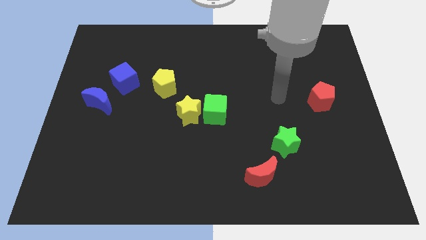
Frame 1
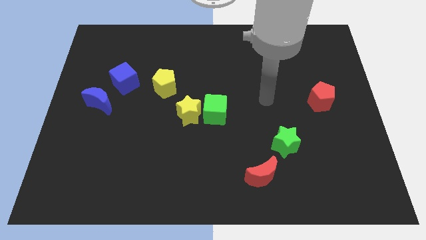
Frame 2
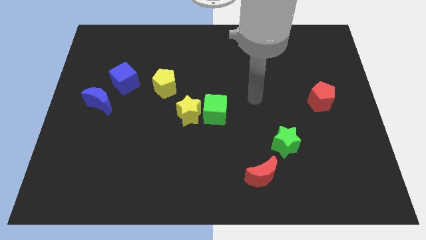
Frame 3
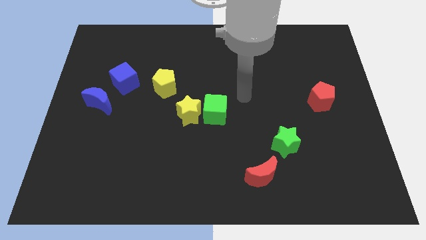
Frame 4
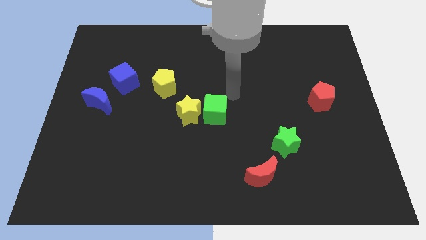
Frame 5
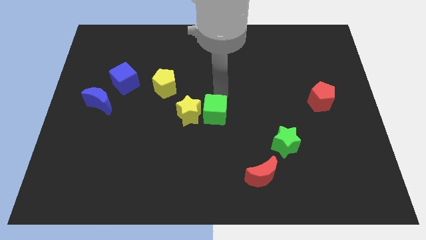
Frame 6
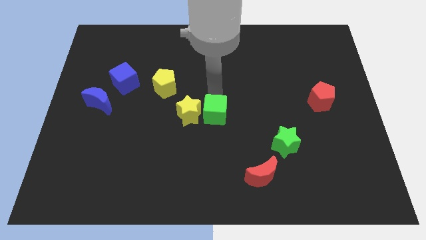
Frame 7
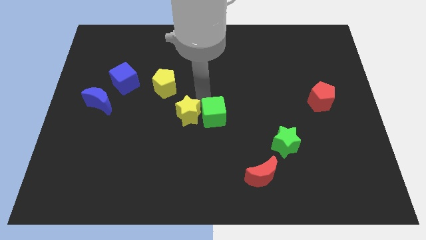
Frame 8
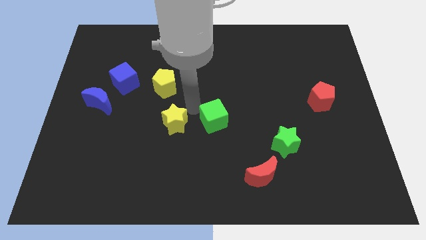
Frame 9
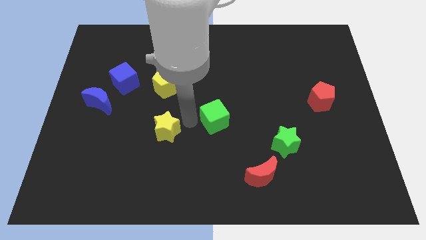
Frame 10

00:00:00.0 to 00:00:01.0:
move the green cube away from the yellow star

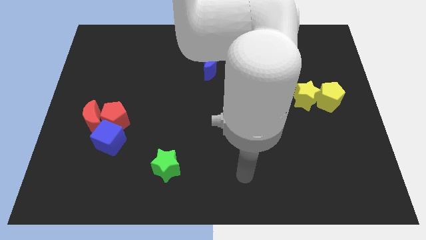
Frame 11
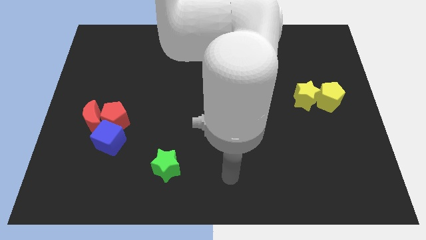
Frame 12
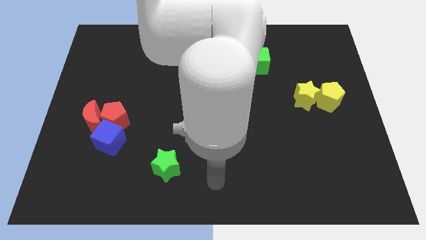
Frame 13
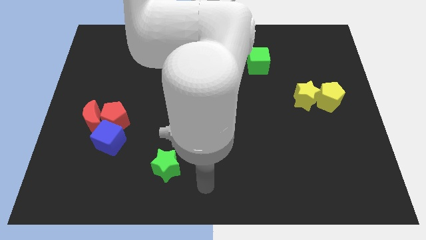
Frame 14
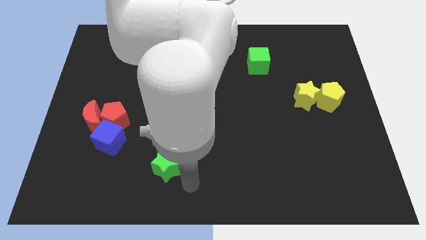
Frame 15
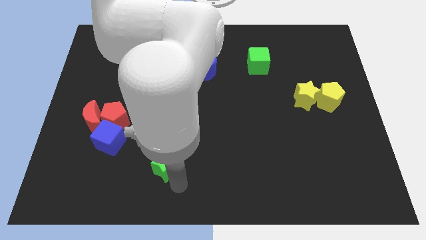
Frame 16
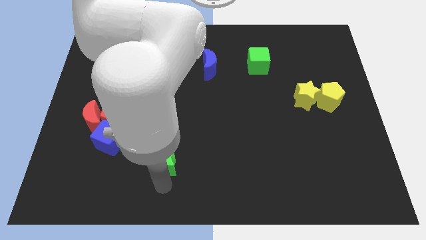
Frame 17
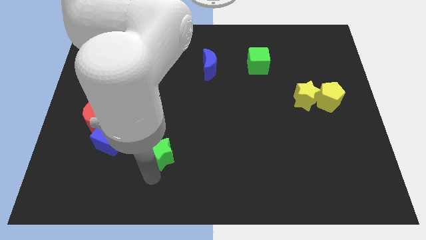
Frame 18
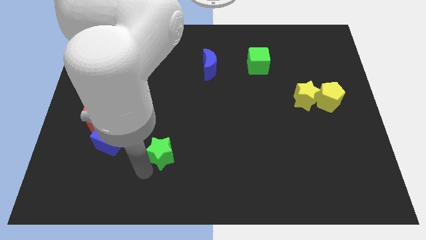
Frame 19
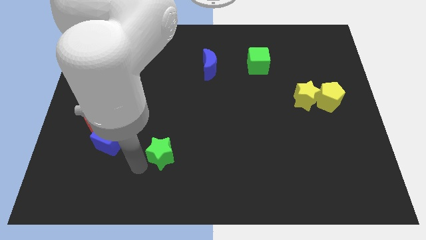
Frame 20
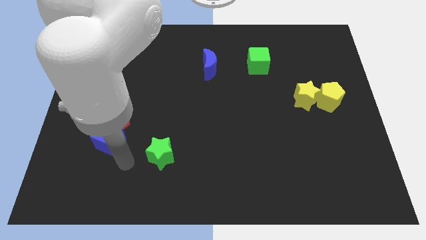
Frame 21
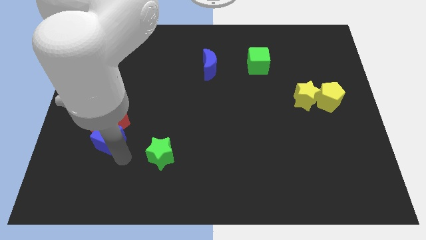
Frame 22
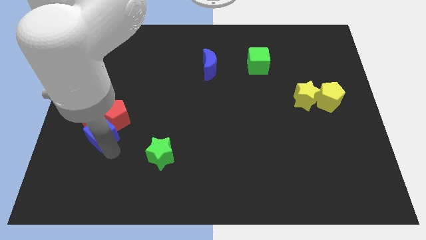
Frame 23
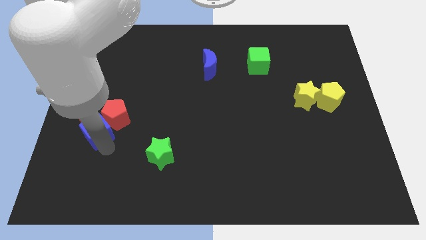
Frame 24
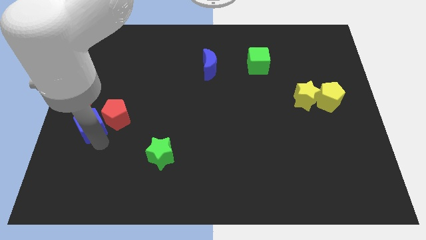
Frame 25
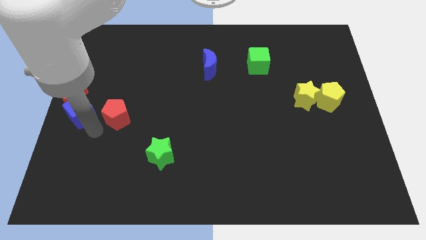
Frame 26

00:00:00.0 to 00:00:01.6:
move the red pentagon away from the red moon and blue cube

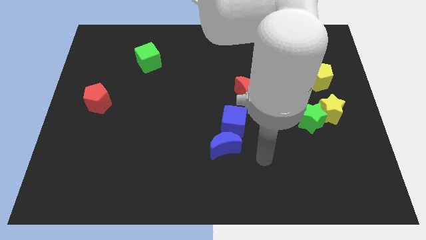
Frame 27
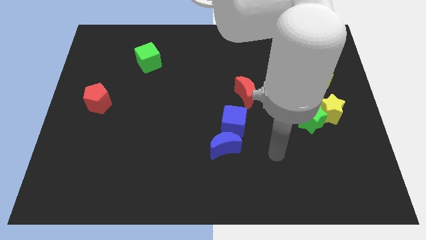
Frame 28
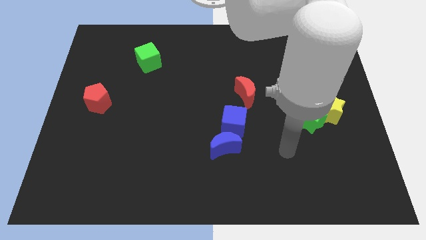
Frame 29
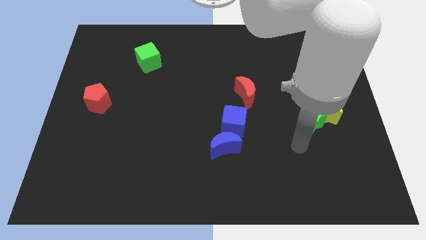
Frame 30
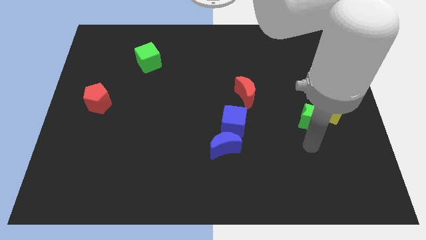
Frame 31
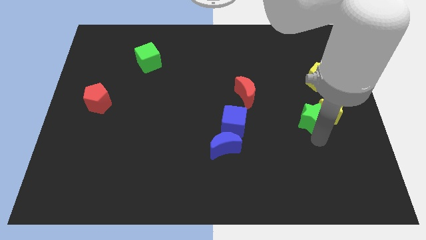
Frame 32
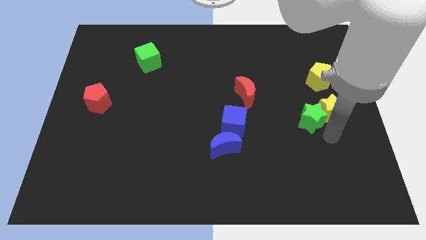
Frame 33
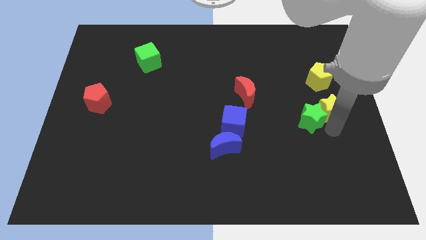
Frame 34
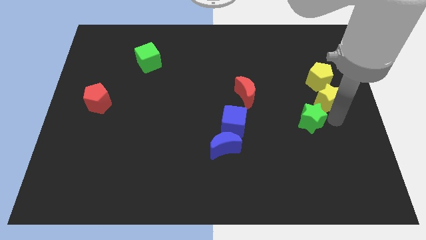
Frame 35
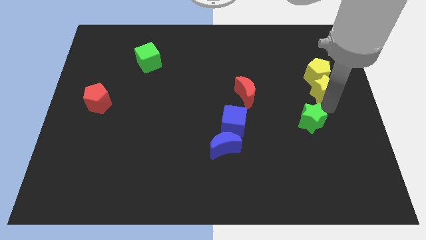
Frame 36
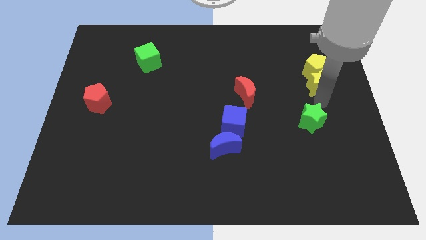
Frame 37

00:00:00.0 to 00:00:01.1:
move the green star away from the yellow star

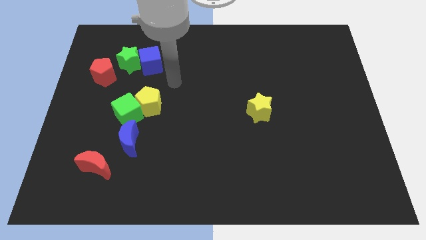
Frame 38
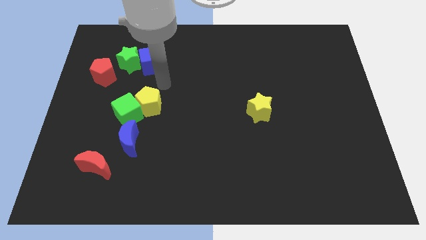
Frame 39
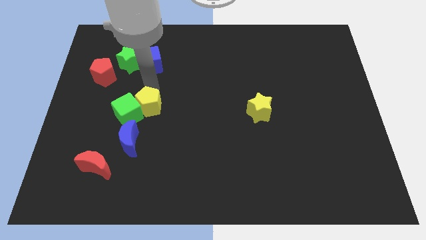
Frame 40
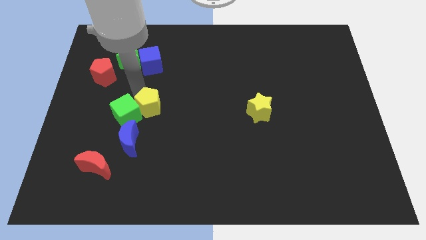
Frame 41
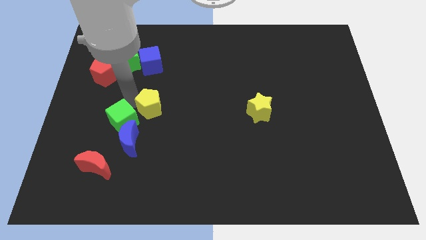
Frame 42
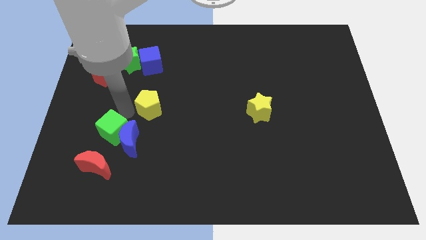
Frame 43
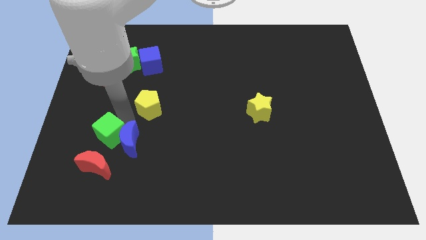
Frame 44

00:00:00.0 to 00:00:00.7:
move the yellow pentagon away from the green cube

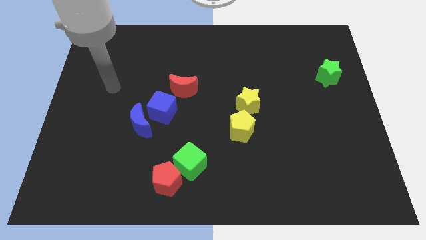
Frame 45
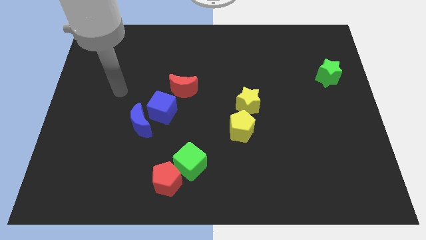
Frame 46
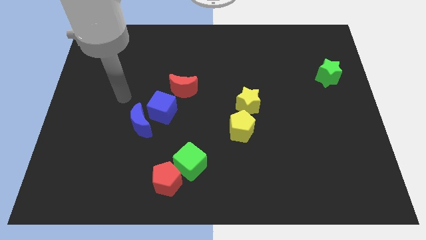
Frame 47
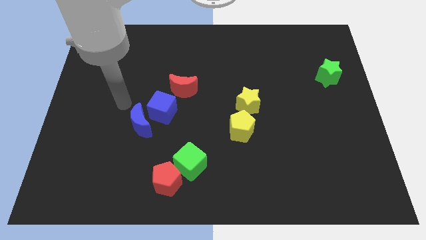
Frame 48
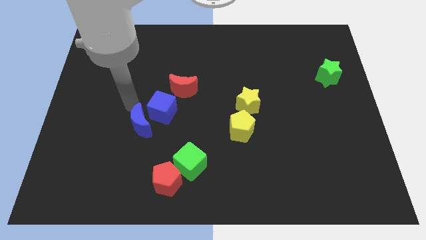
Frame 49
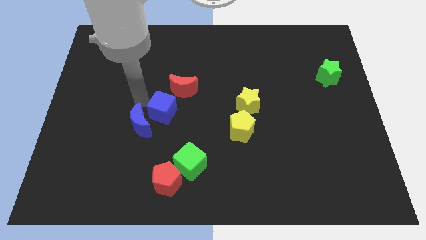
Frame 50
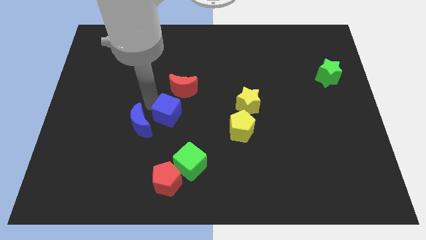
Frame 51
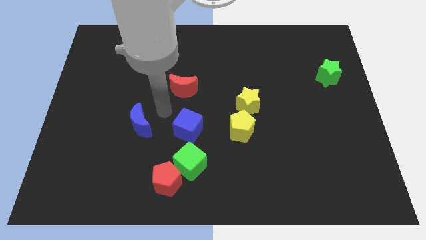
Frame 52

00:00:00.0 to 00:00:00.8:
move the blue moon away from the blue cube

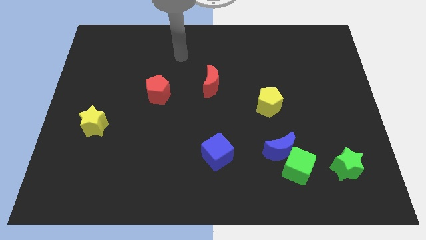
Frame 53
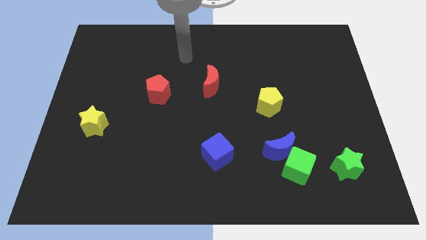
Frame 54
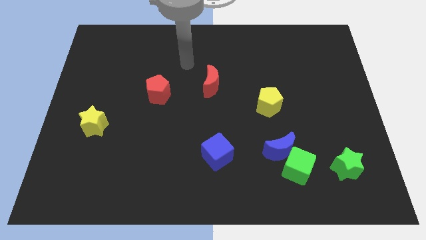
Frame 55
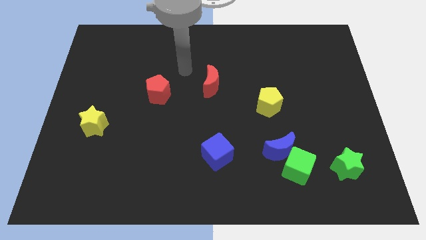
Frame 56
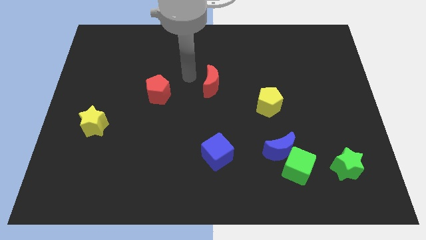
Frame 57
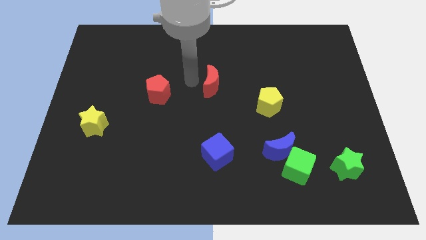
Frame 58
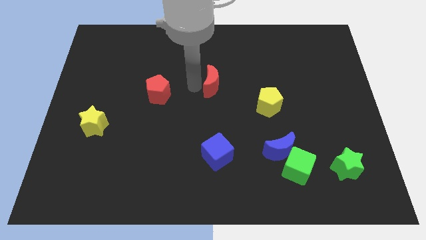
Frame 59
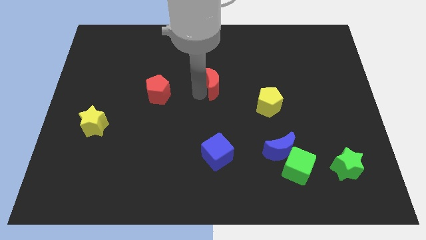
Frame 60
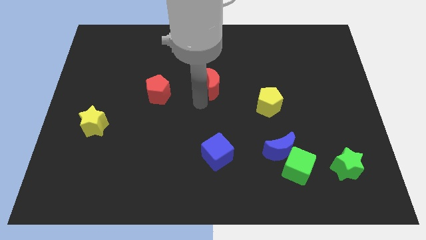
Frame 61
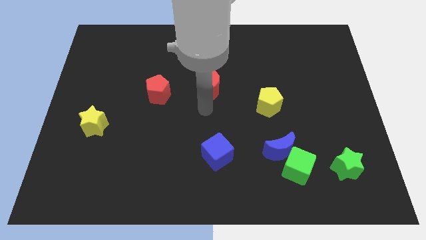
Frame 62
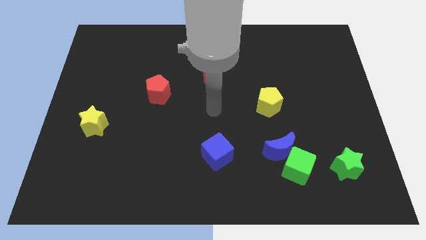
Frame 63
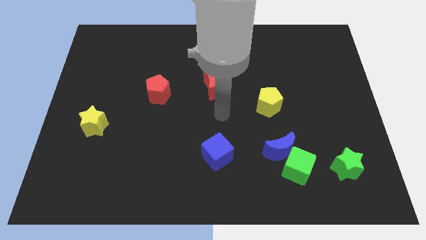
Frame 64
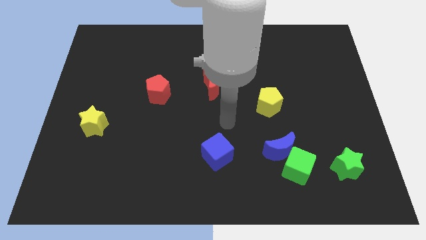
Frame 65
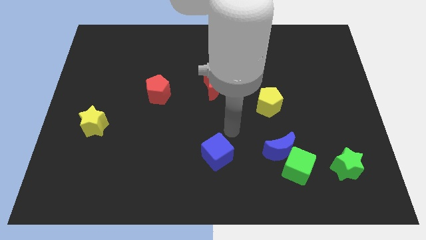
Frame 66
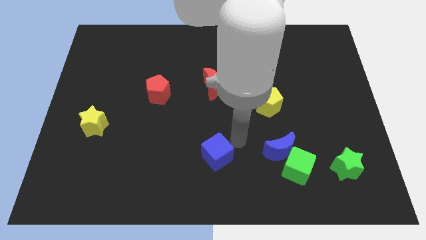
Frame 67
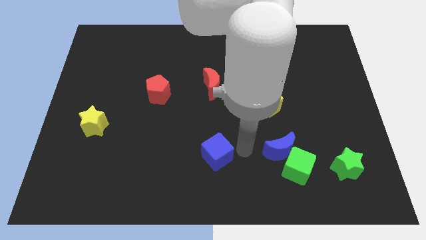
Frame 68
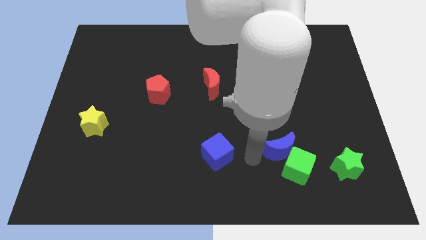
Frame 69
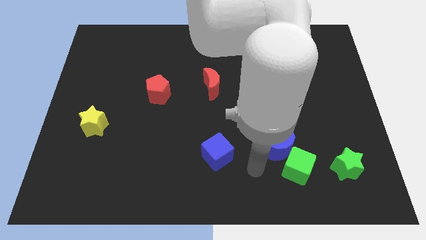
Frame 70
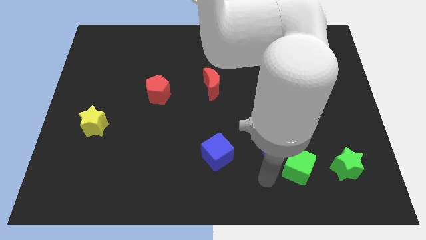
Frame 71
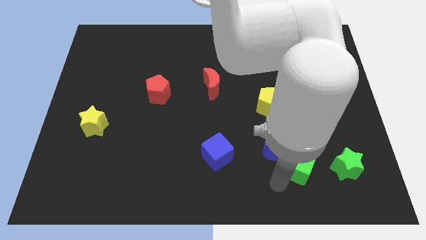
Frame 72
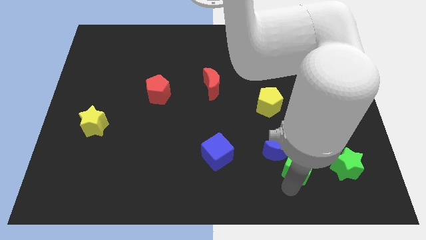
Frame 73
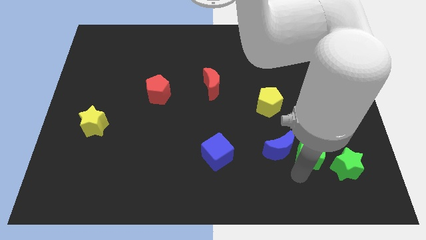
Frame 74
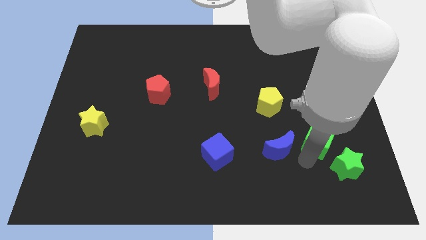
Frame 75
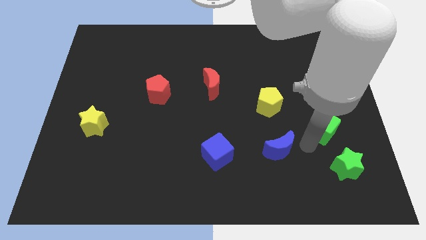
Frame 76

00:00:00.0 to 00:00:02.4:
pull the blue moon apart from the green cube

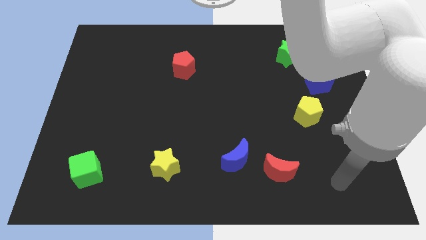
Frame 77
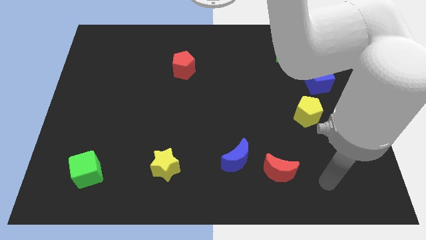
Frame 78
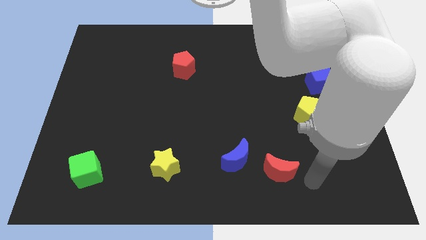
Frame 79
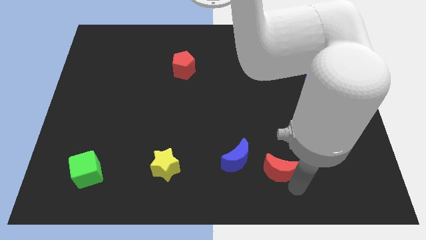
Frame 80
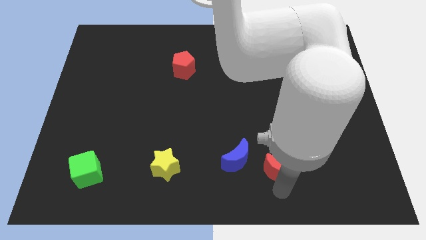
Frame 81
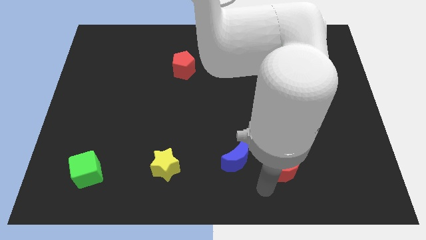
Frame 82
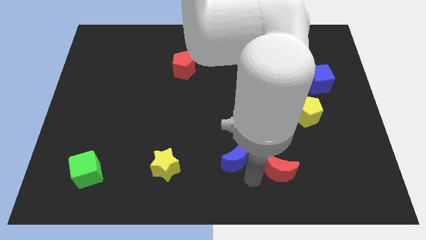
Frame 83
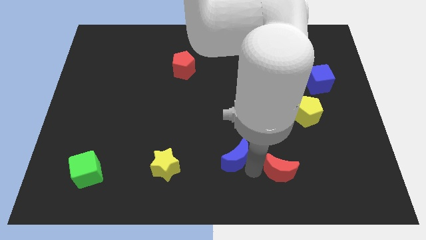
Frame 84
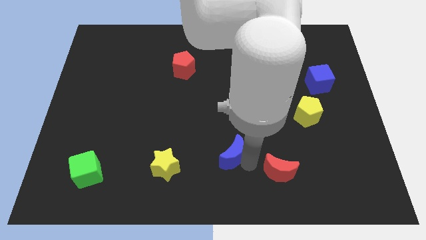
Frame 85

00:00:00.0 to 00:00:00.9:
separate the red moon from the blue moon

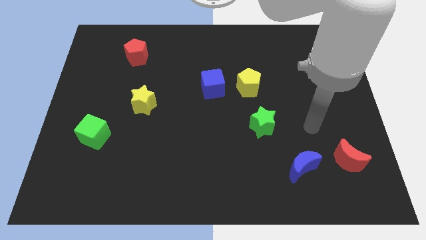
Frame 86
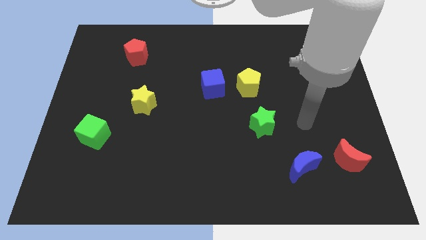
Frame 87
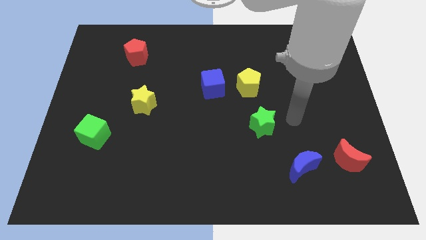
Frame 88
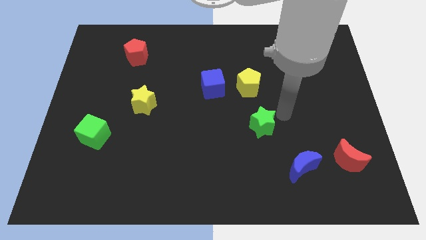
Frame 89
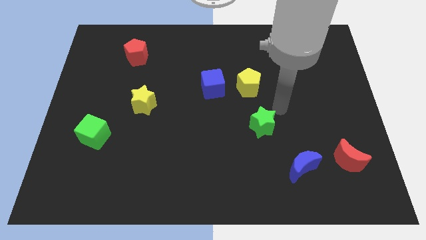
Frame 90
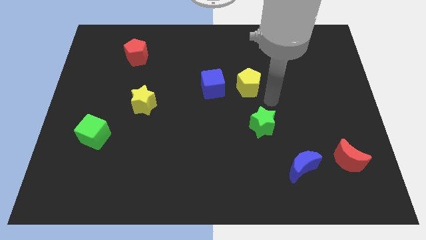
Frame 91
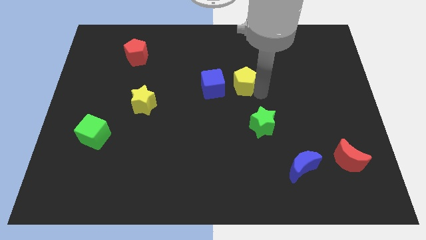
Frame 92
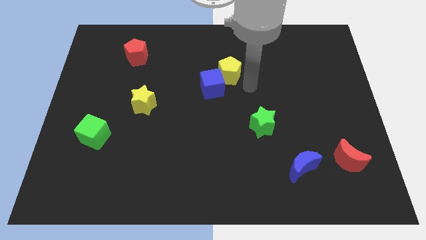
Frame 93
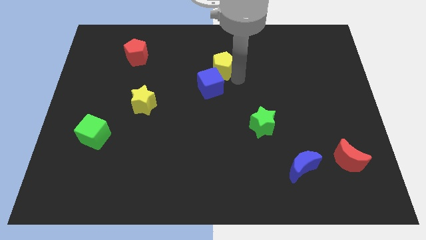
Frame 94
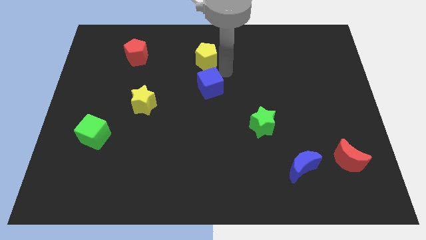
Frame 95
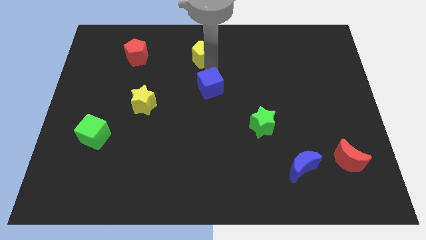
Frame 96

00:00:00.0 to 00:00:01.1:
pull the blue cube apart from the yellow pentagon
